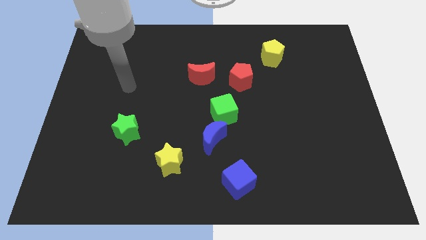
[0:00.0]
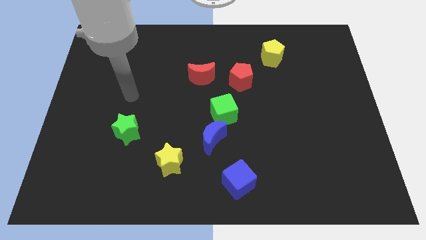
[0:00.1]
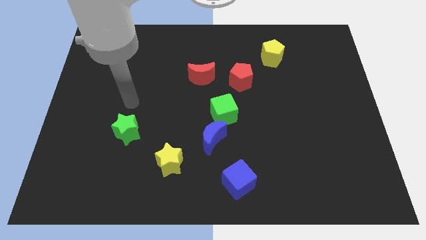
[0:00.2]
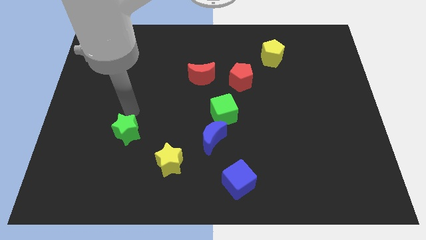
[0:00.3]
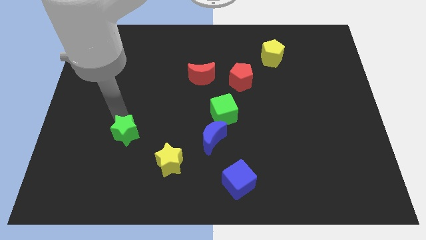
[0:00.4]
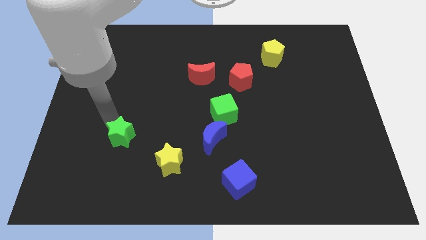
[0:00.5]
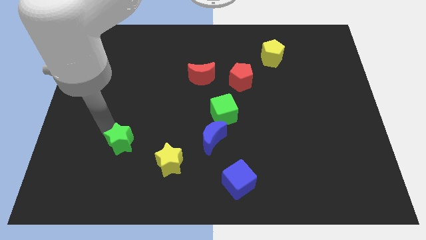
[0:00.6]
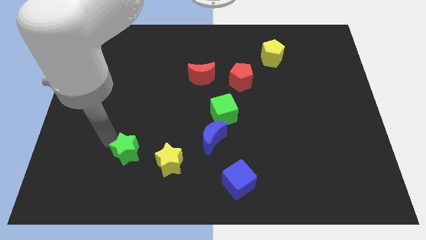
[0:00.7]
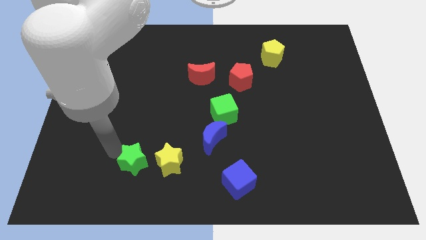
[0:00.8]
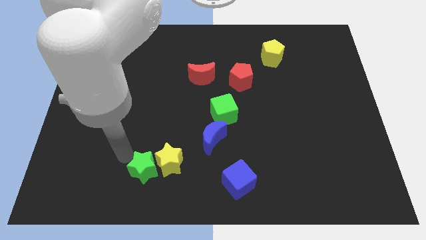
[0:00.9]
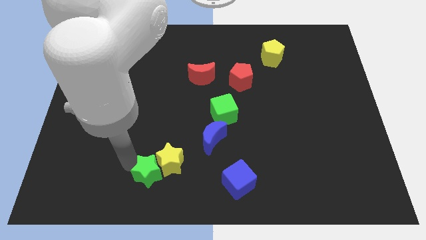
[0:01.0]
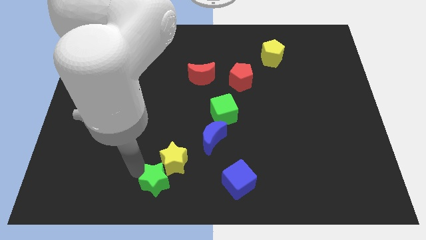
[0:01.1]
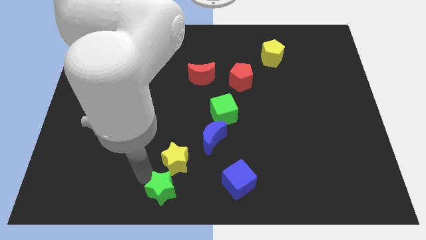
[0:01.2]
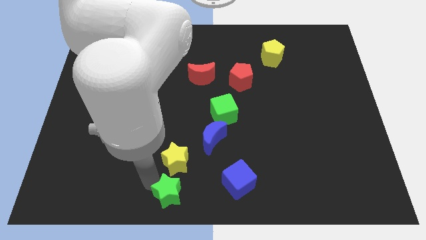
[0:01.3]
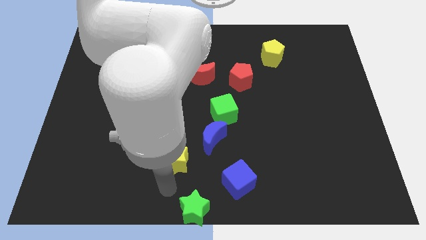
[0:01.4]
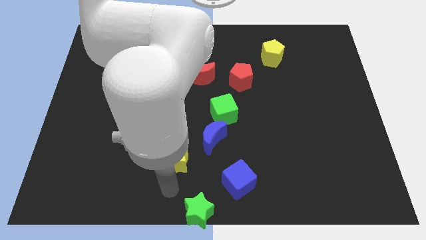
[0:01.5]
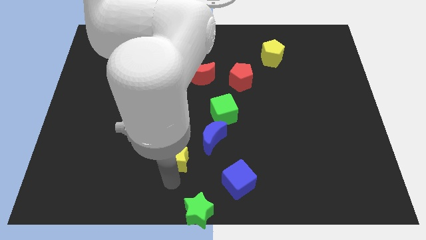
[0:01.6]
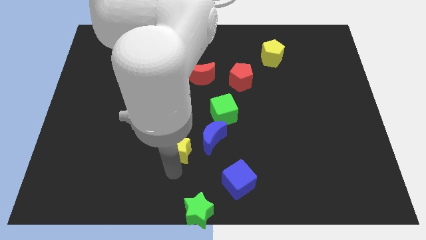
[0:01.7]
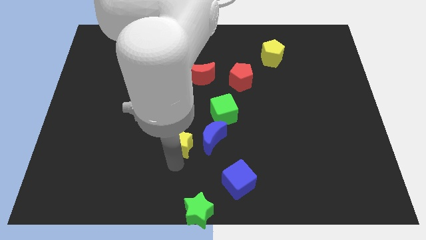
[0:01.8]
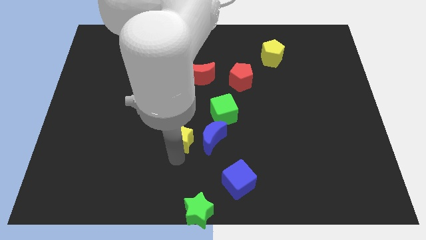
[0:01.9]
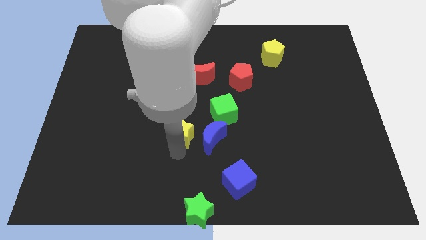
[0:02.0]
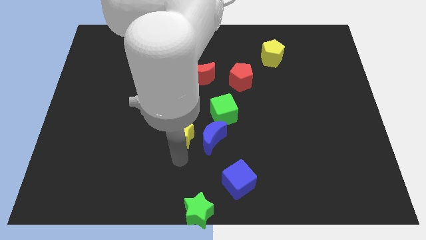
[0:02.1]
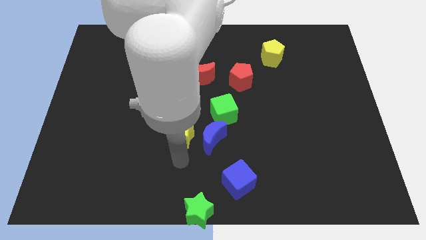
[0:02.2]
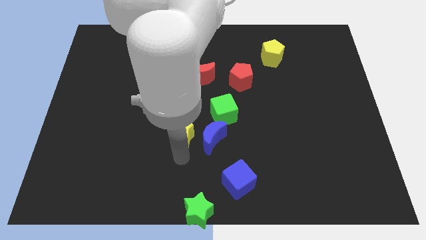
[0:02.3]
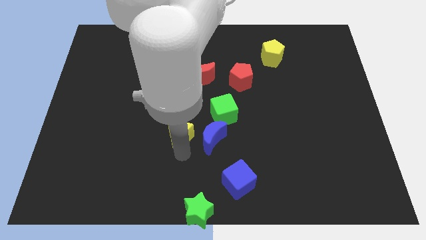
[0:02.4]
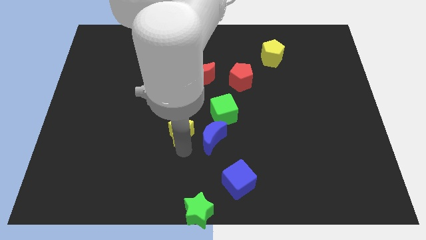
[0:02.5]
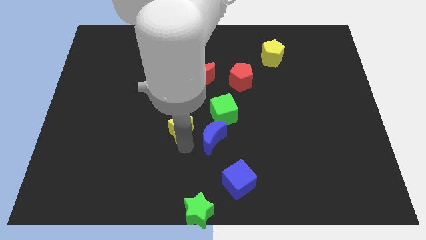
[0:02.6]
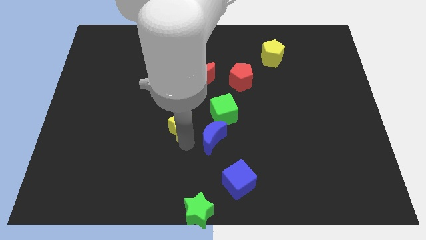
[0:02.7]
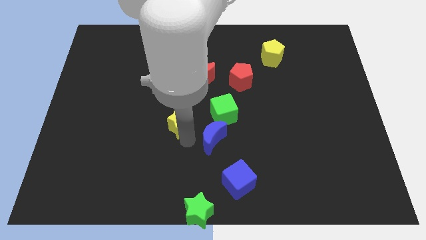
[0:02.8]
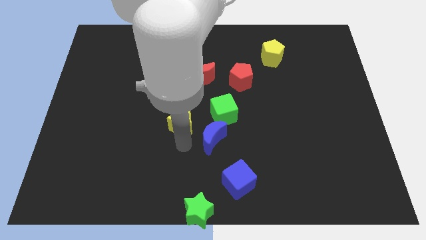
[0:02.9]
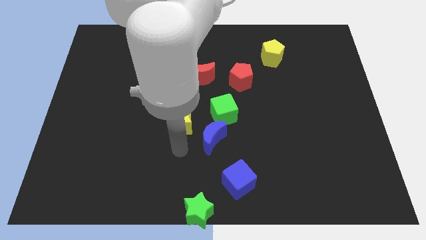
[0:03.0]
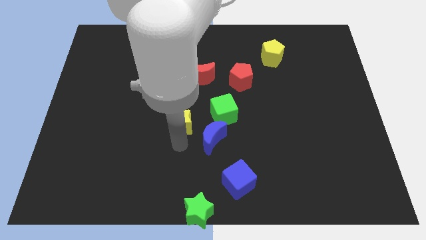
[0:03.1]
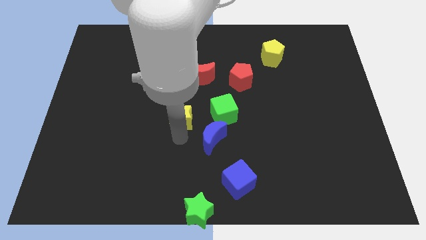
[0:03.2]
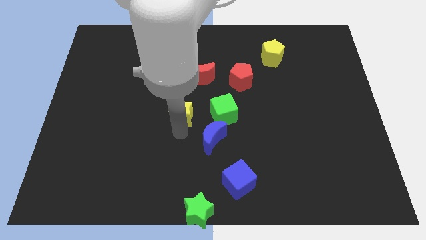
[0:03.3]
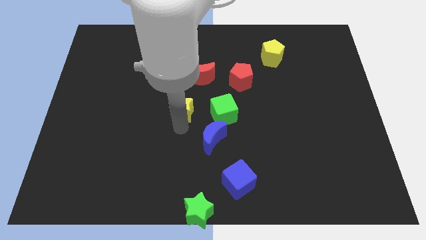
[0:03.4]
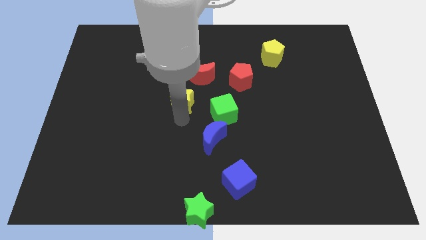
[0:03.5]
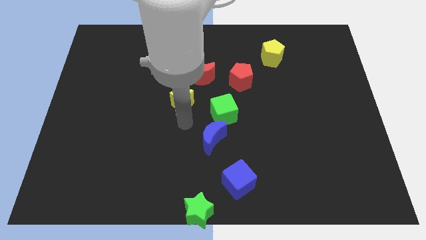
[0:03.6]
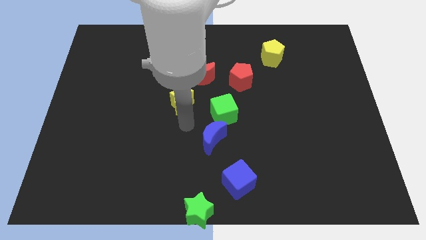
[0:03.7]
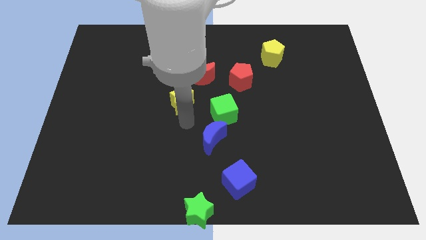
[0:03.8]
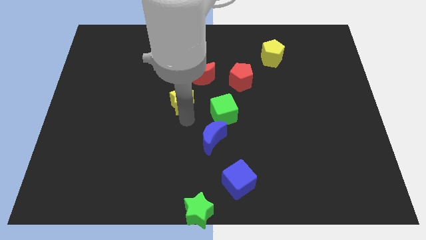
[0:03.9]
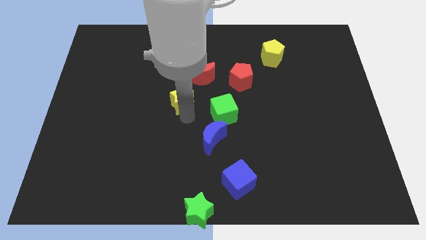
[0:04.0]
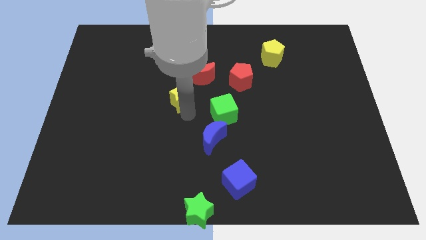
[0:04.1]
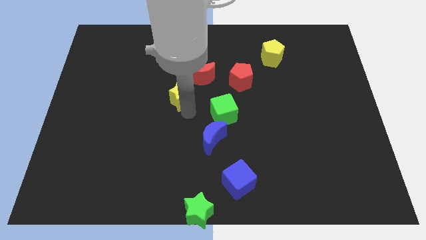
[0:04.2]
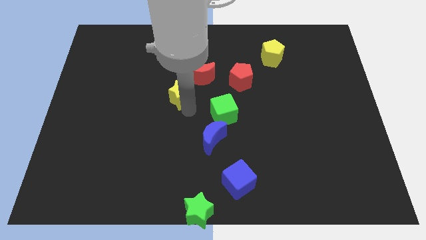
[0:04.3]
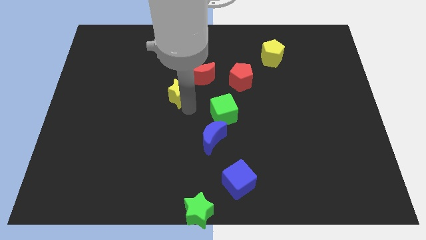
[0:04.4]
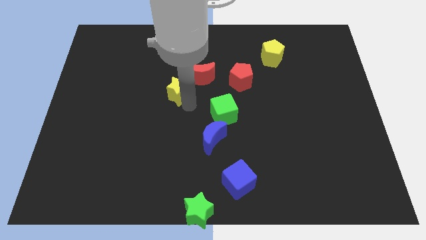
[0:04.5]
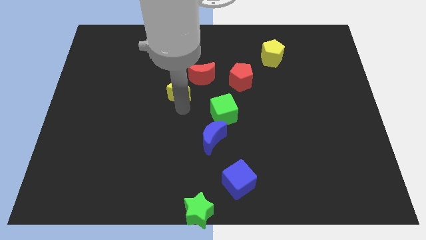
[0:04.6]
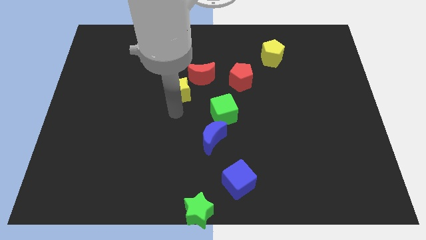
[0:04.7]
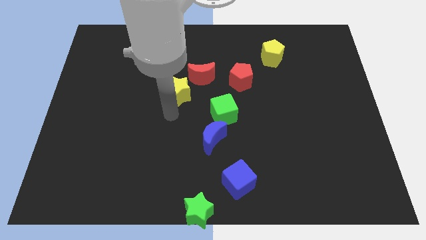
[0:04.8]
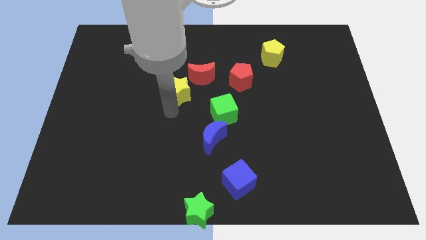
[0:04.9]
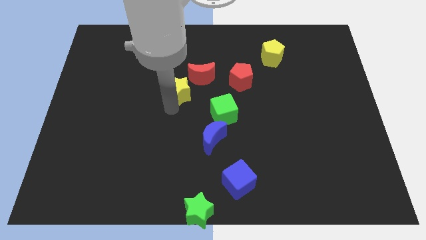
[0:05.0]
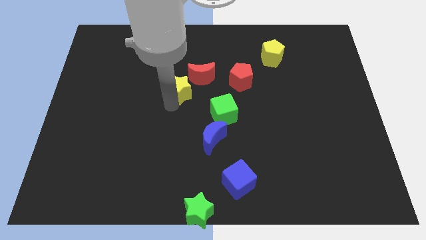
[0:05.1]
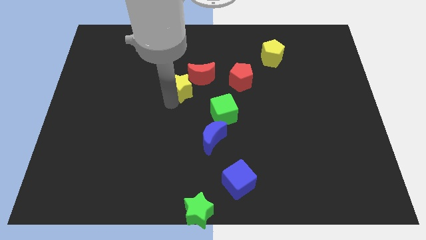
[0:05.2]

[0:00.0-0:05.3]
push the yellow star upwards

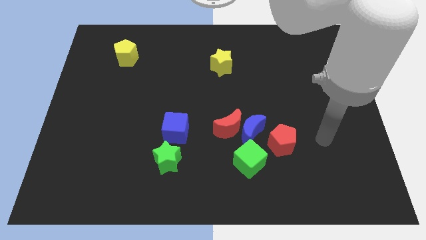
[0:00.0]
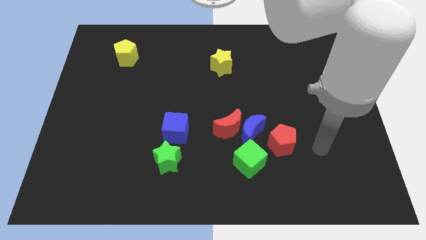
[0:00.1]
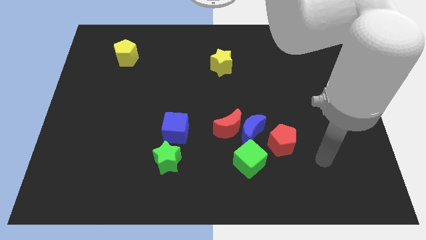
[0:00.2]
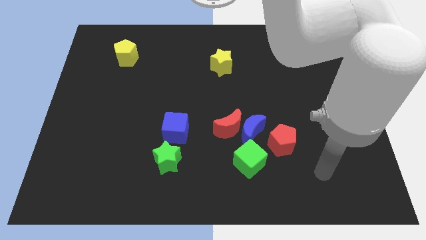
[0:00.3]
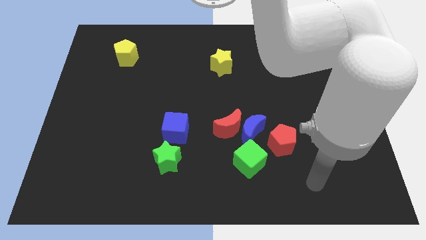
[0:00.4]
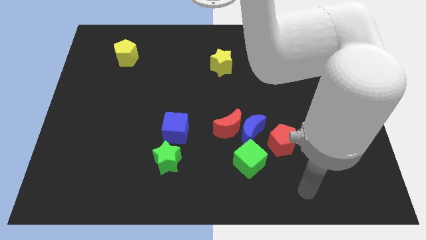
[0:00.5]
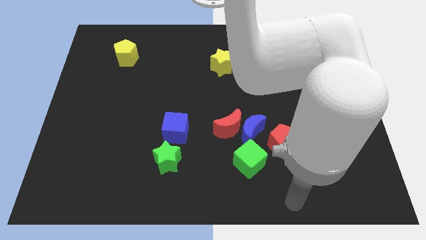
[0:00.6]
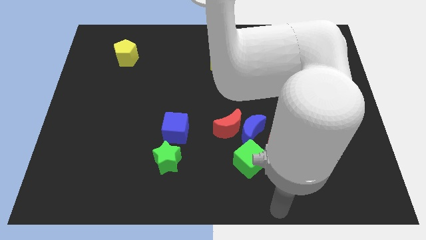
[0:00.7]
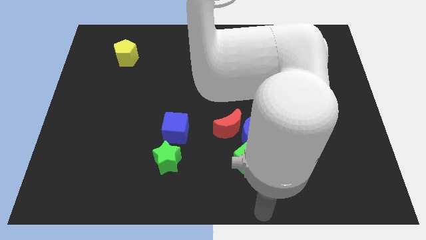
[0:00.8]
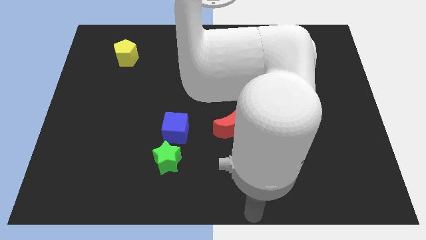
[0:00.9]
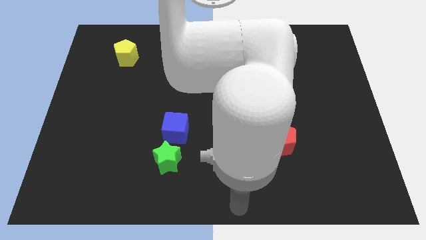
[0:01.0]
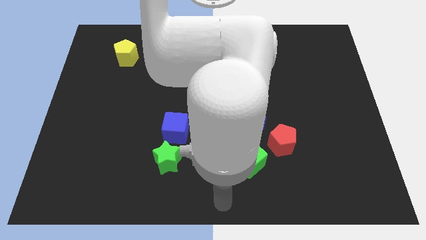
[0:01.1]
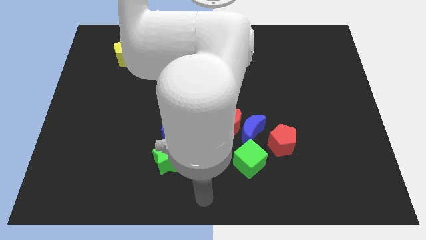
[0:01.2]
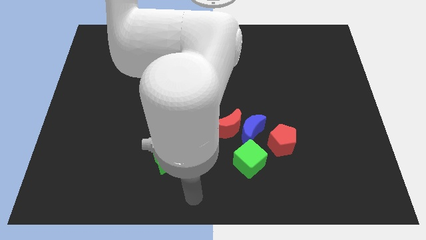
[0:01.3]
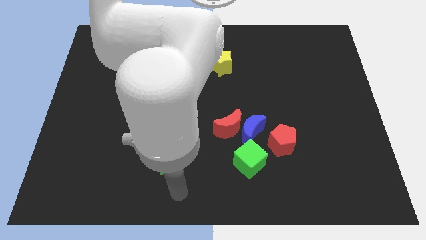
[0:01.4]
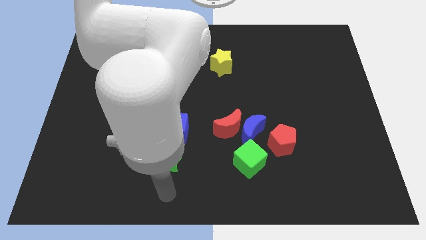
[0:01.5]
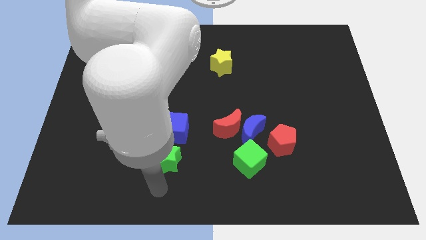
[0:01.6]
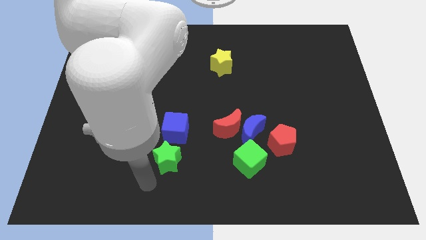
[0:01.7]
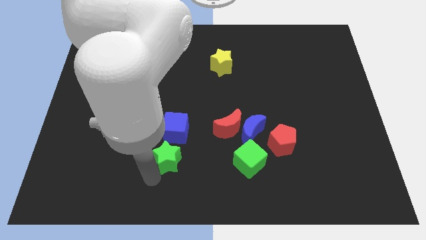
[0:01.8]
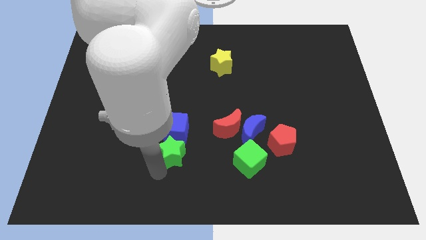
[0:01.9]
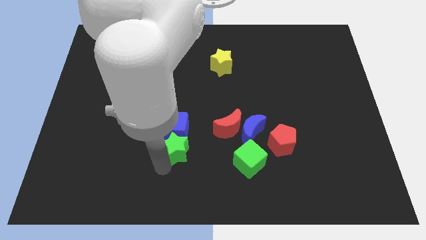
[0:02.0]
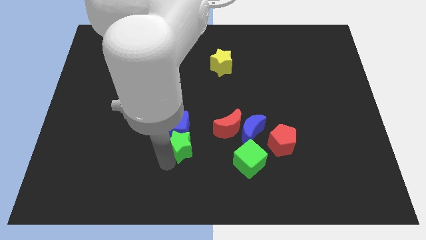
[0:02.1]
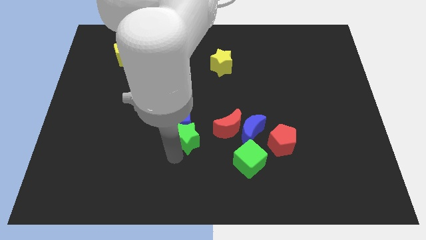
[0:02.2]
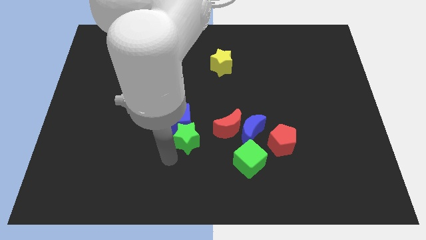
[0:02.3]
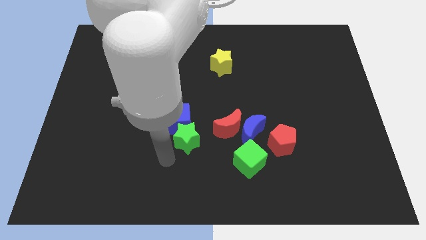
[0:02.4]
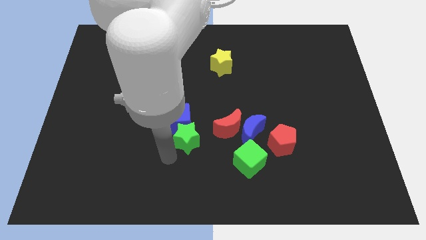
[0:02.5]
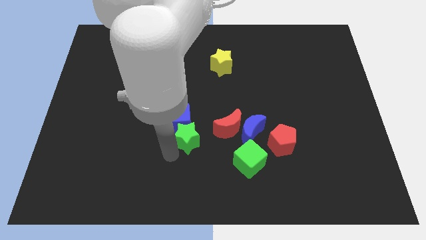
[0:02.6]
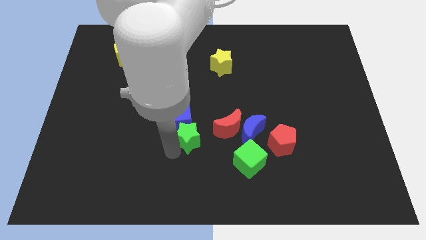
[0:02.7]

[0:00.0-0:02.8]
slightly slide the green star up and then right
